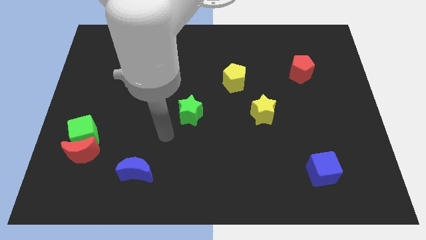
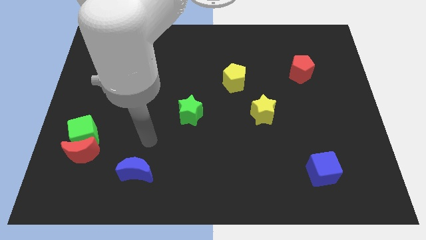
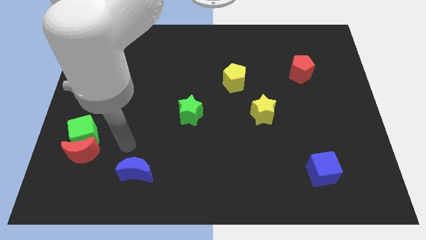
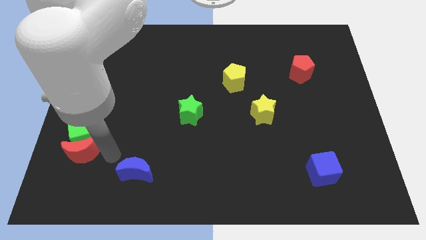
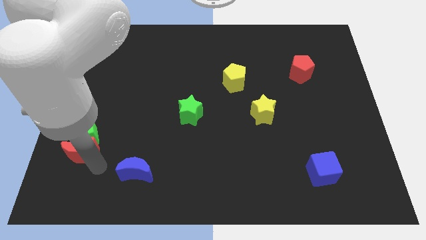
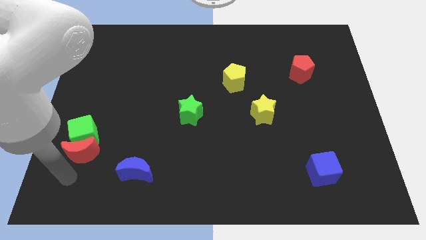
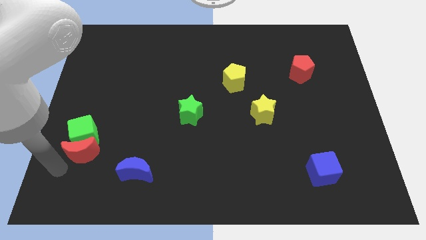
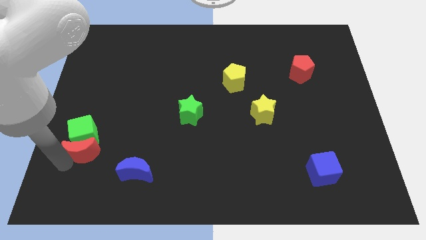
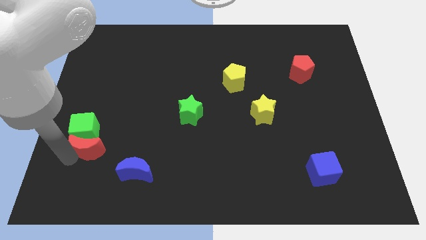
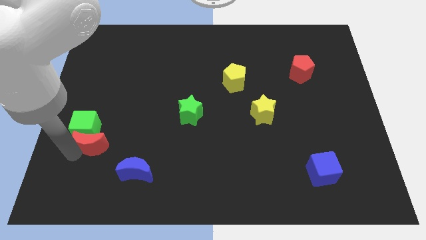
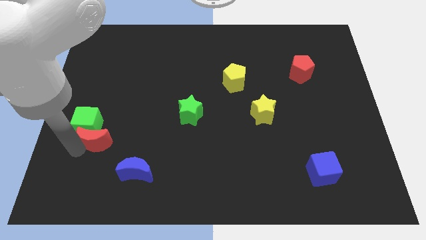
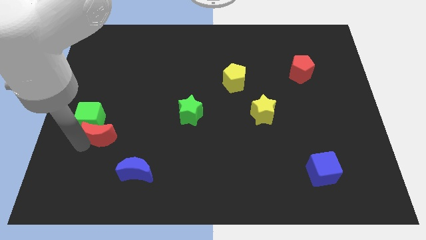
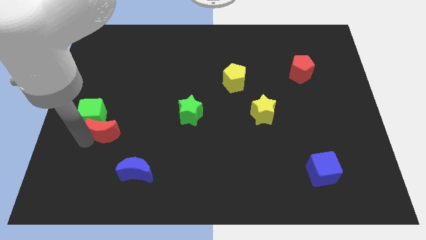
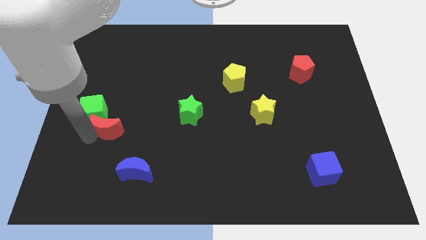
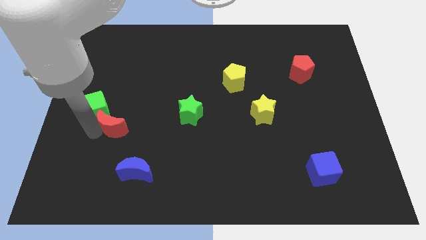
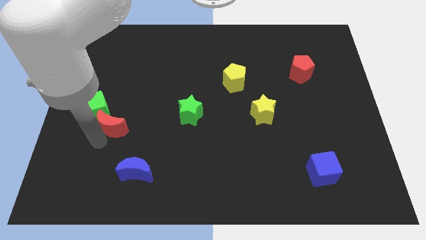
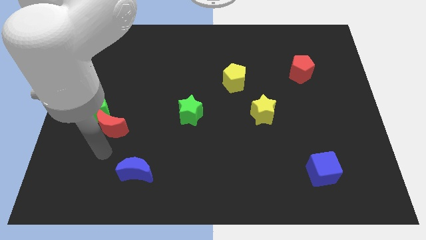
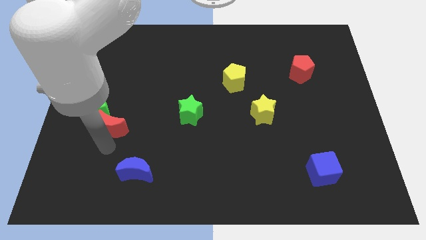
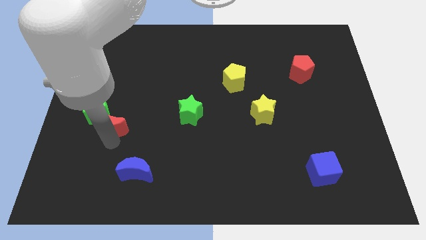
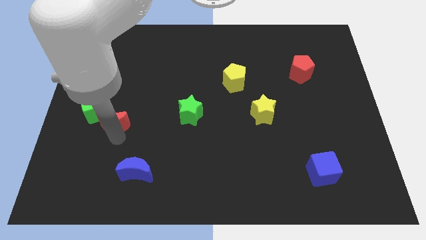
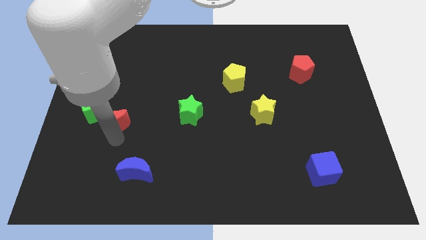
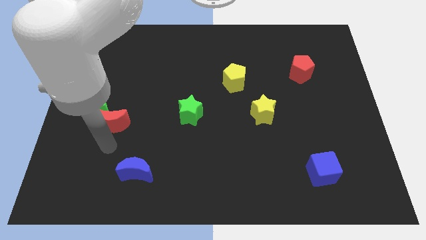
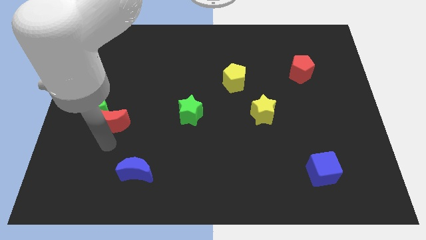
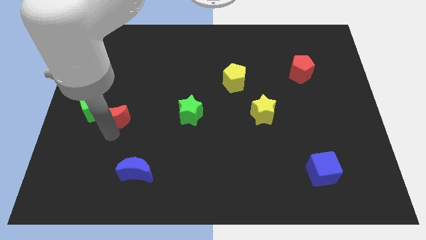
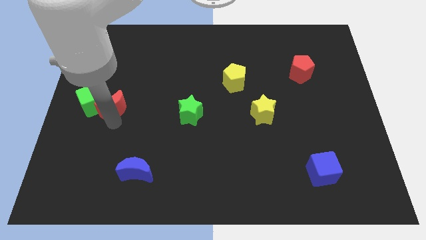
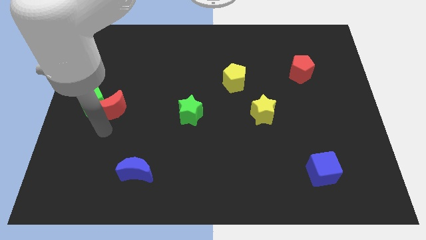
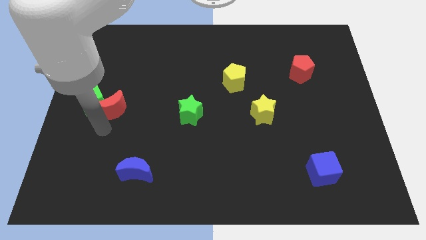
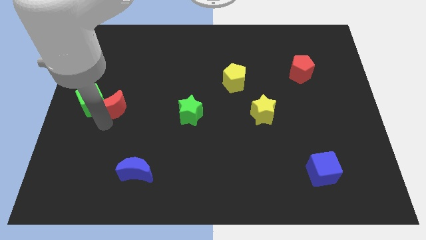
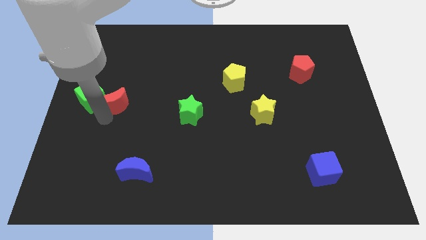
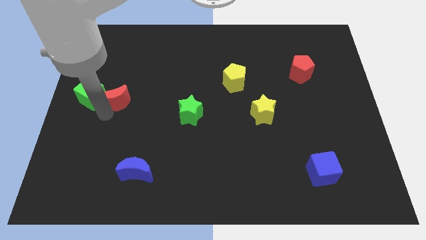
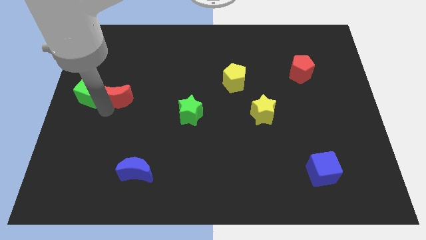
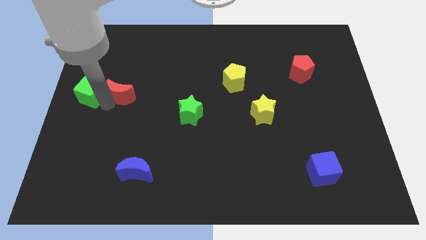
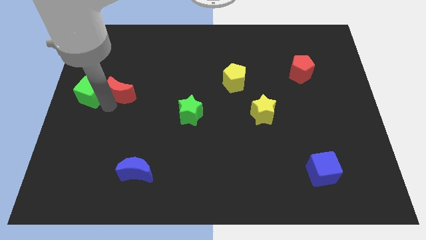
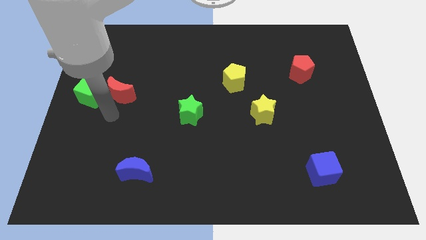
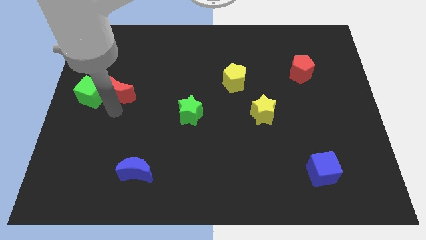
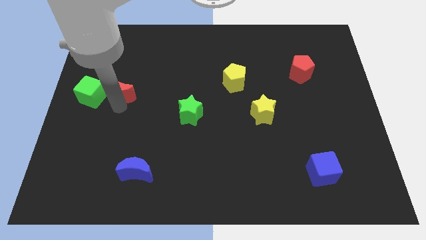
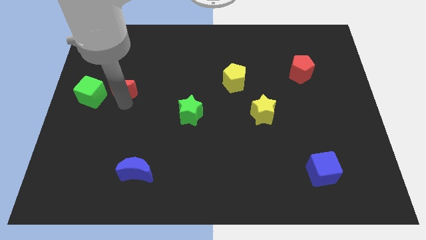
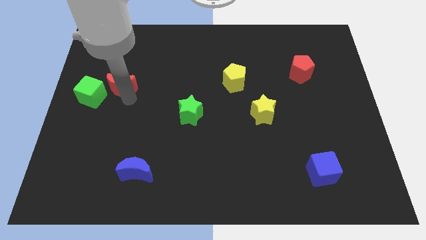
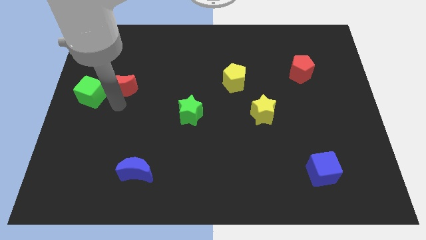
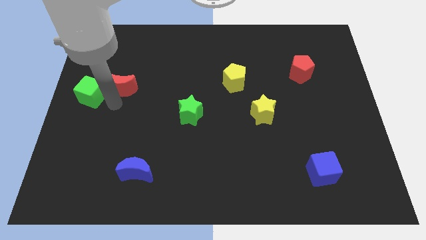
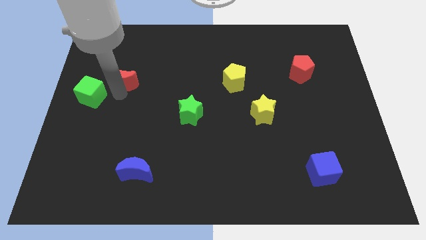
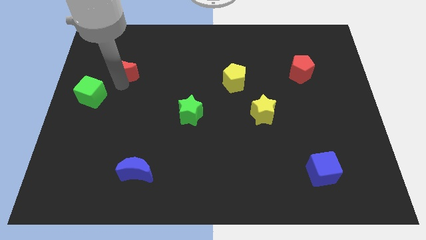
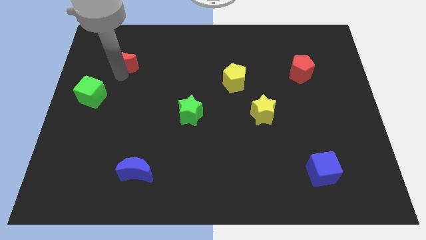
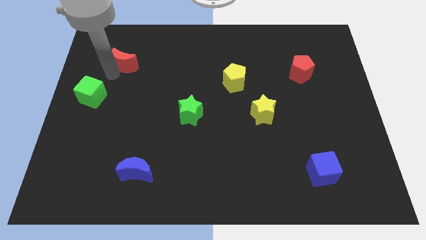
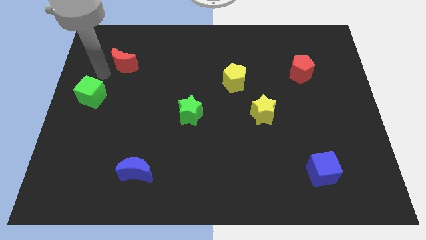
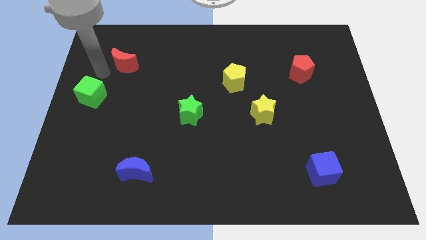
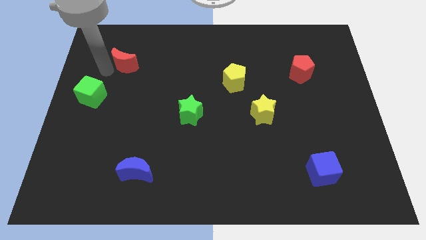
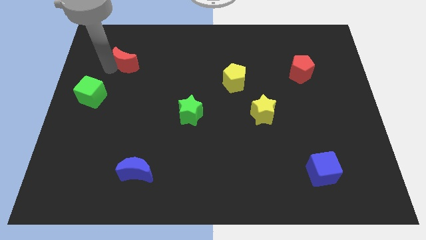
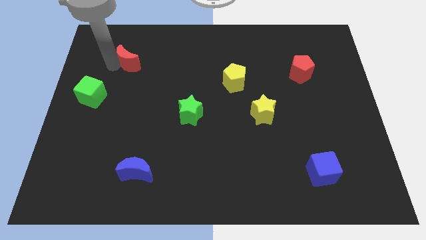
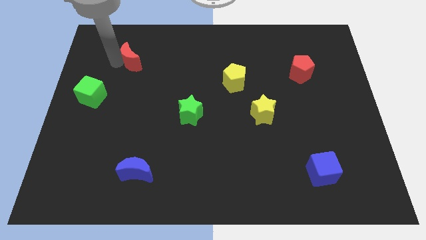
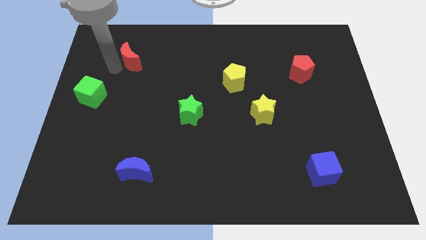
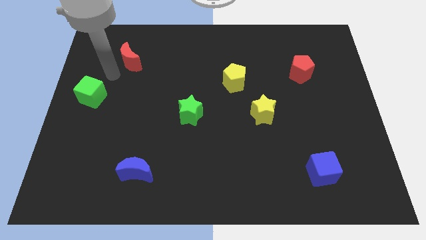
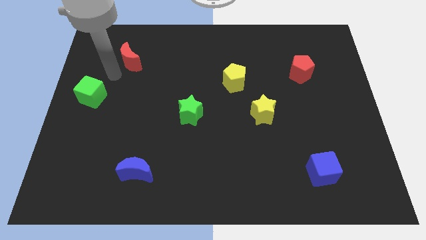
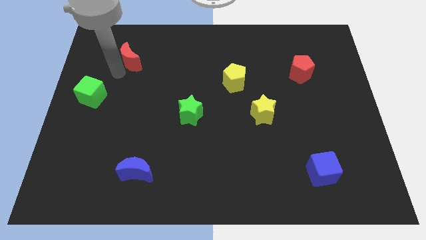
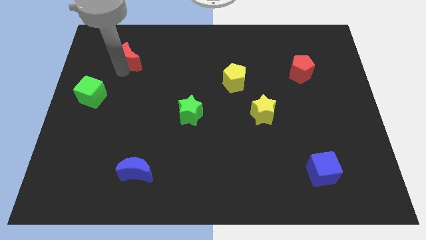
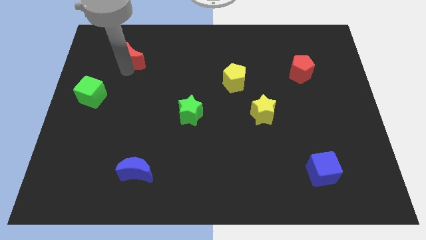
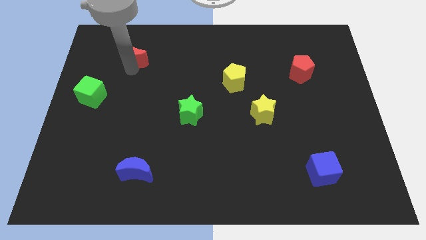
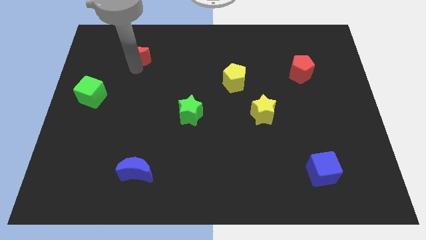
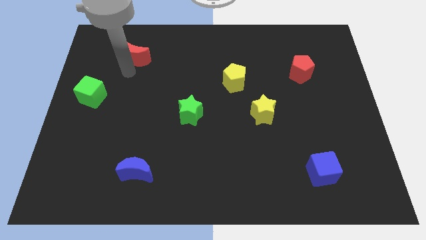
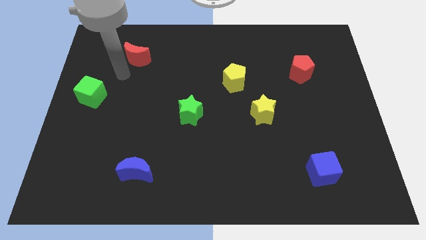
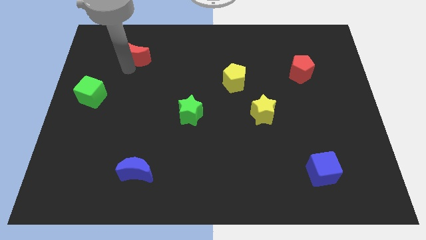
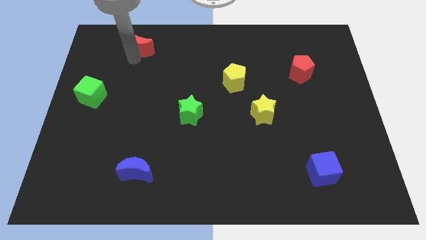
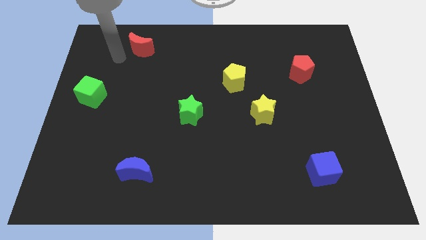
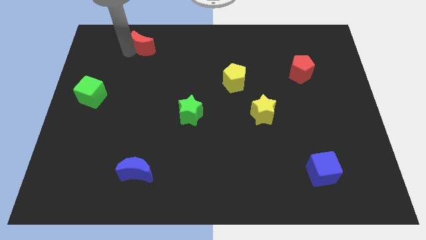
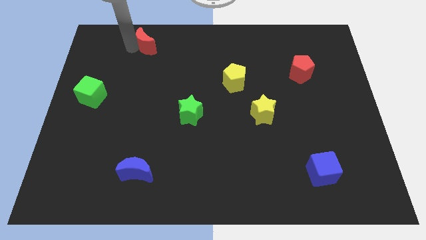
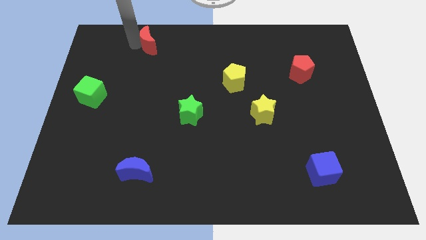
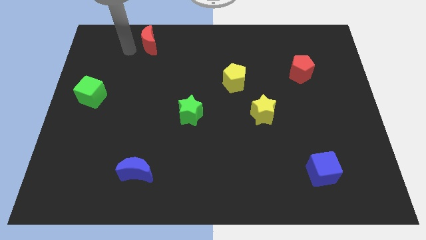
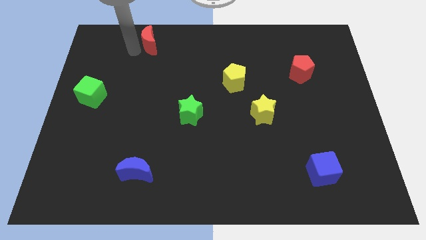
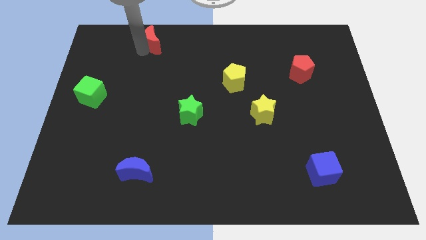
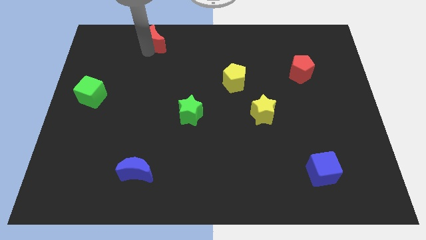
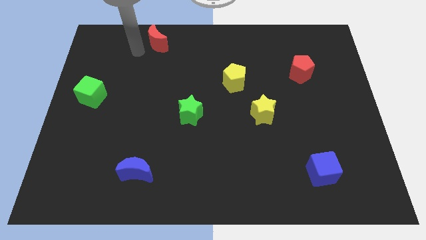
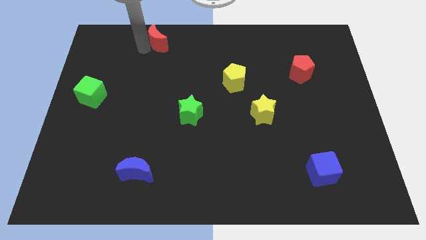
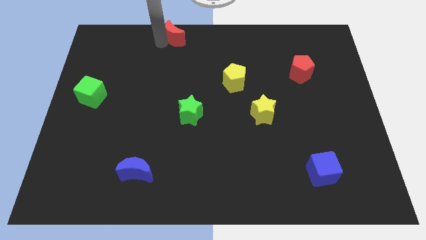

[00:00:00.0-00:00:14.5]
move the red moon to the top
